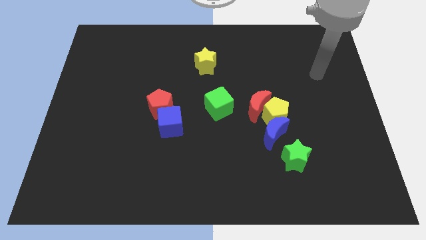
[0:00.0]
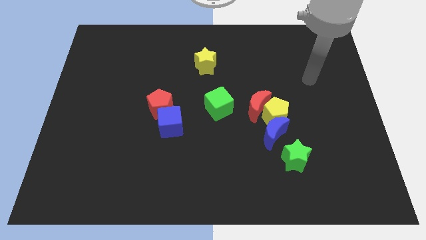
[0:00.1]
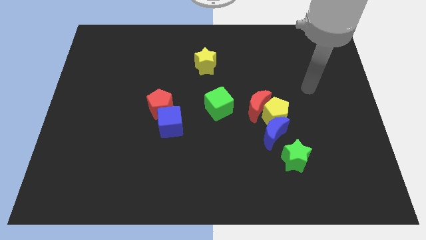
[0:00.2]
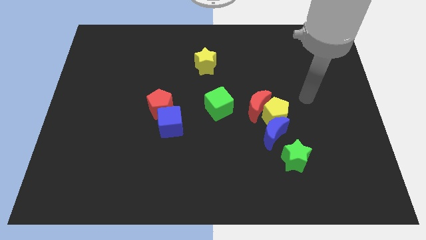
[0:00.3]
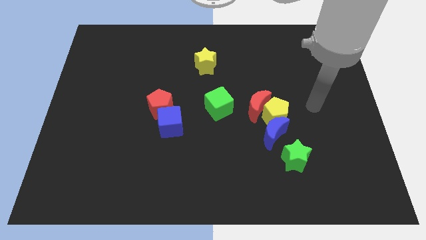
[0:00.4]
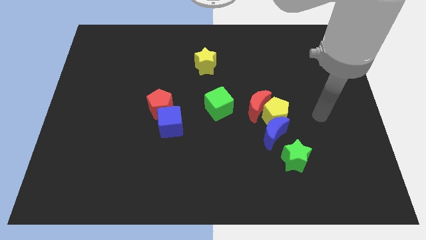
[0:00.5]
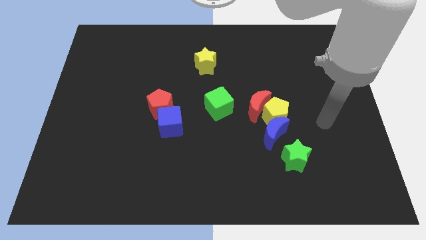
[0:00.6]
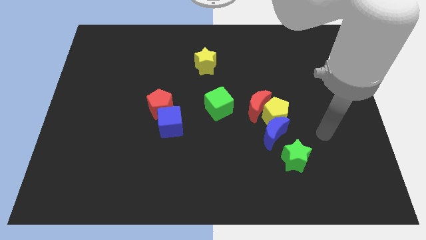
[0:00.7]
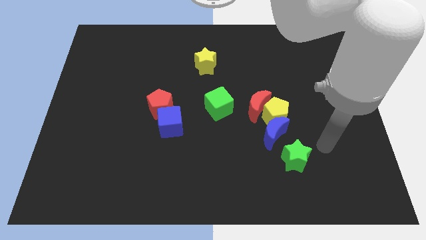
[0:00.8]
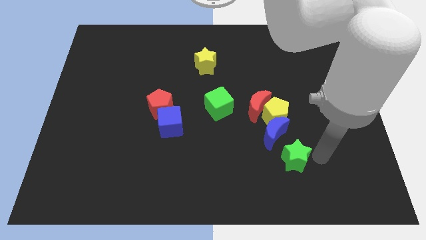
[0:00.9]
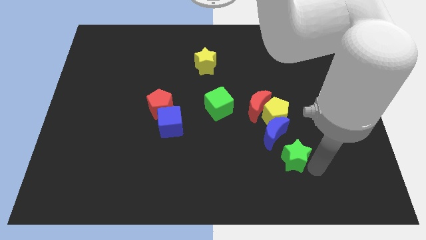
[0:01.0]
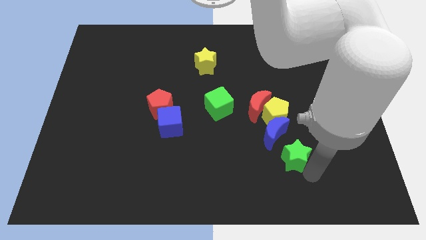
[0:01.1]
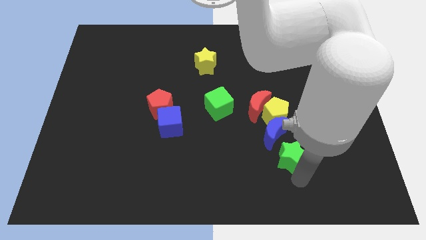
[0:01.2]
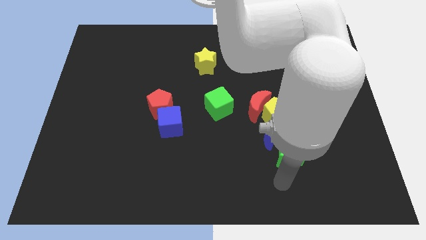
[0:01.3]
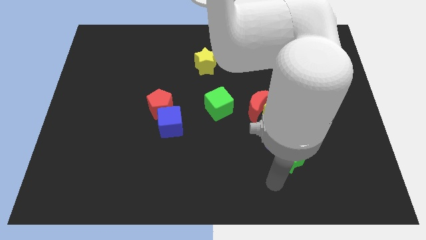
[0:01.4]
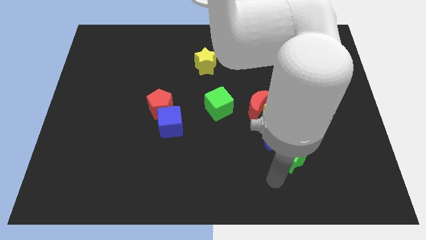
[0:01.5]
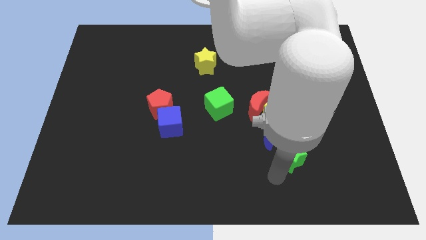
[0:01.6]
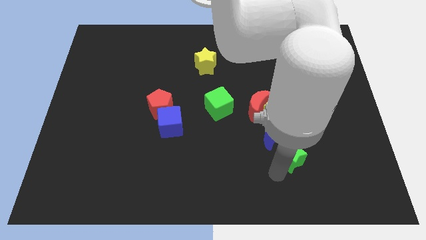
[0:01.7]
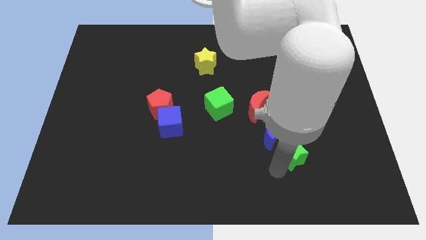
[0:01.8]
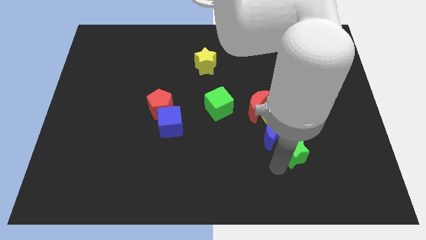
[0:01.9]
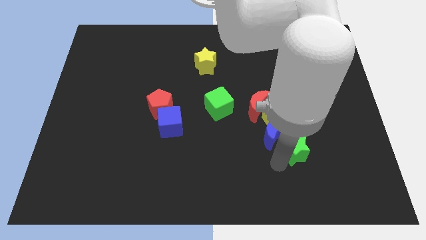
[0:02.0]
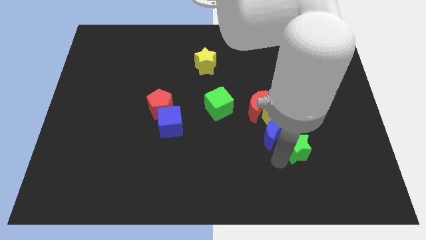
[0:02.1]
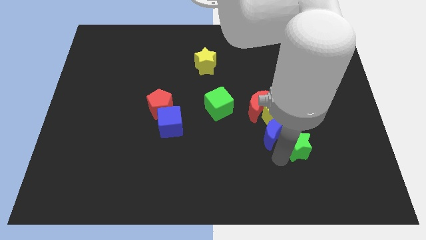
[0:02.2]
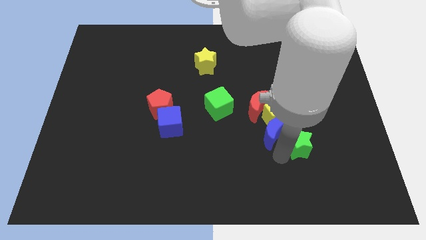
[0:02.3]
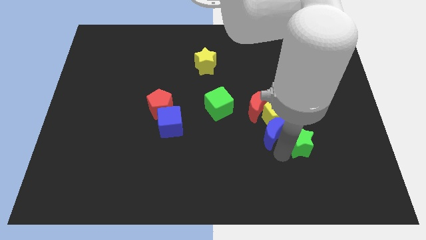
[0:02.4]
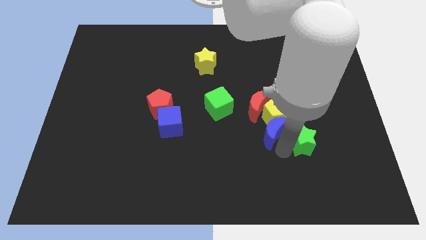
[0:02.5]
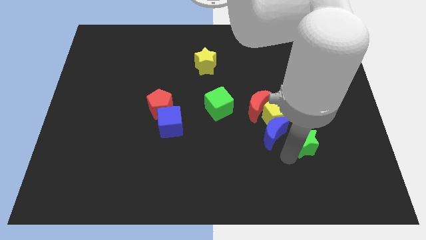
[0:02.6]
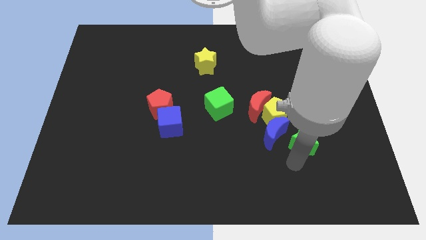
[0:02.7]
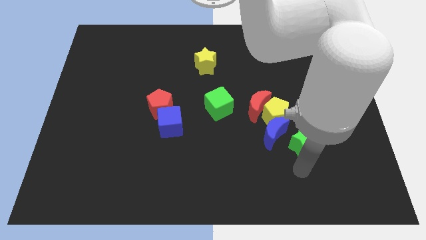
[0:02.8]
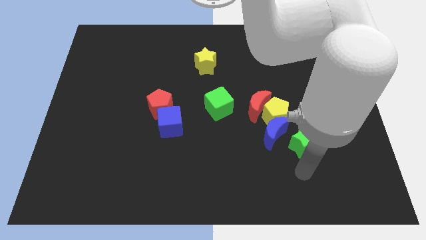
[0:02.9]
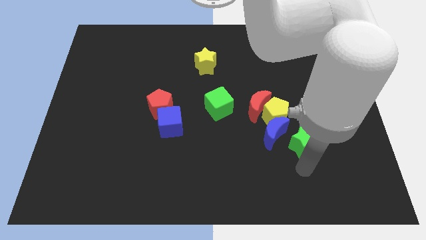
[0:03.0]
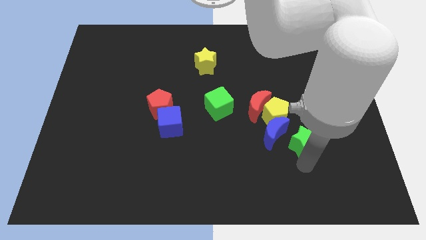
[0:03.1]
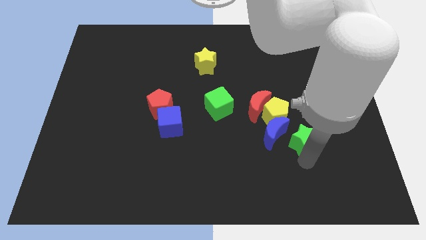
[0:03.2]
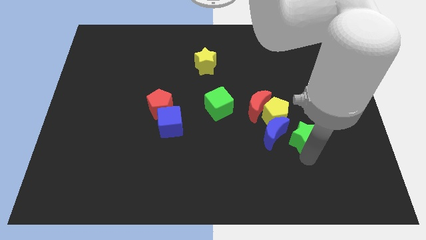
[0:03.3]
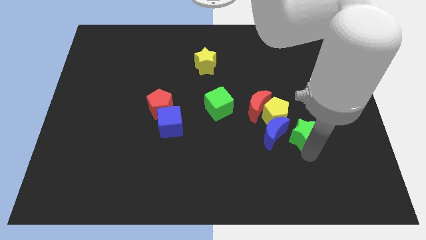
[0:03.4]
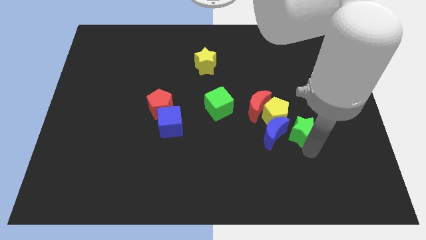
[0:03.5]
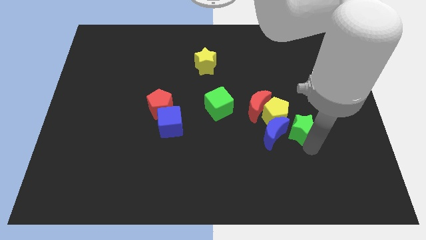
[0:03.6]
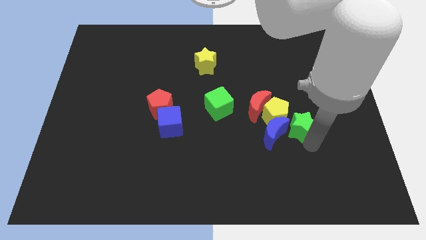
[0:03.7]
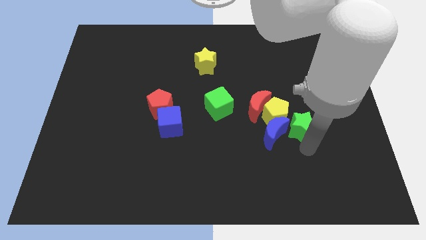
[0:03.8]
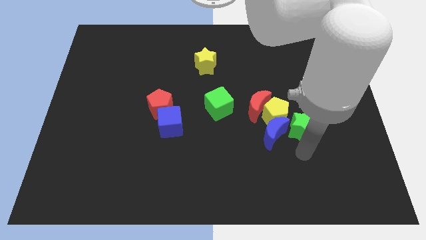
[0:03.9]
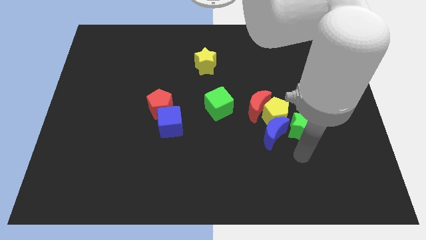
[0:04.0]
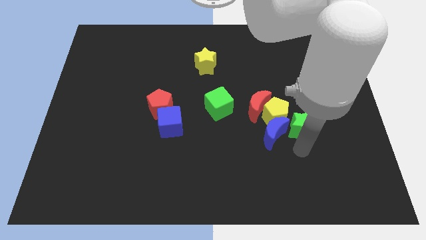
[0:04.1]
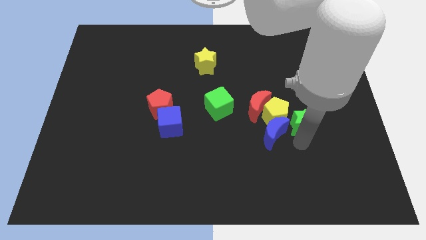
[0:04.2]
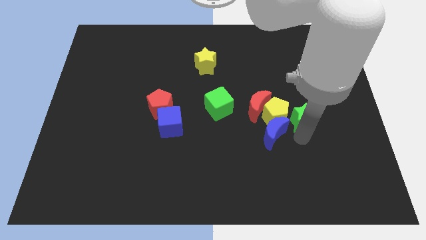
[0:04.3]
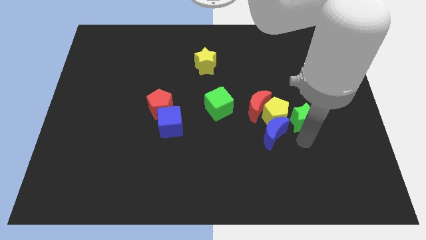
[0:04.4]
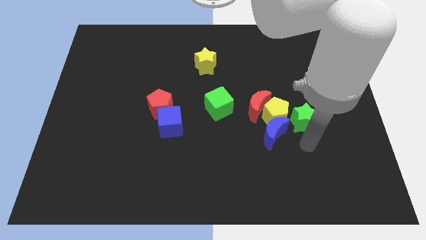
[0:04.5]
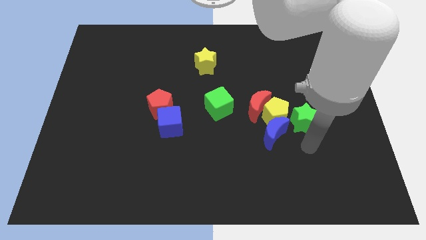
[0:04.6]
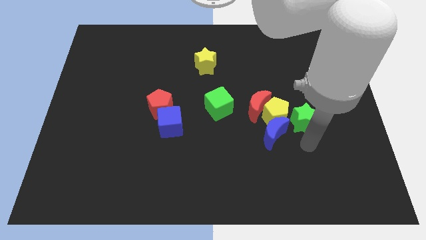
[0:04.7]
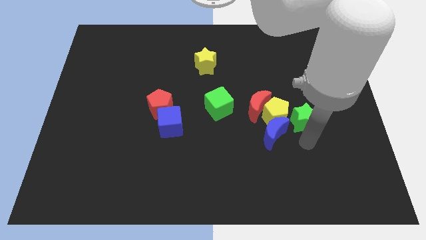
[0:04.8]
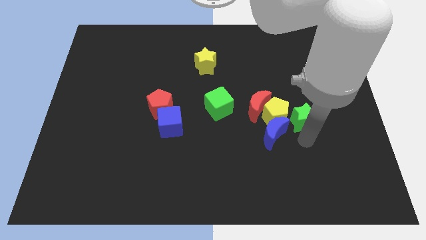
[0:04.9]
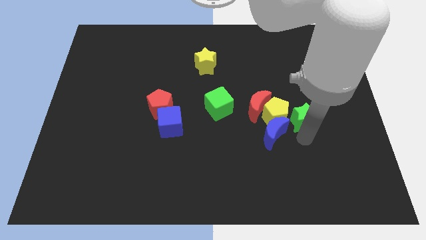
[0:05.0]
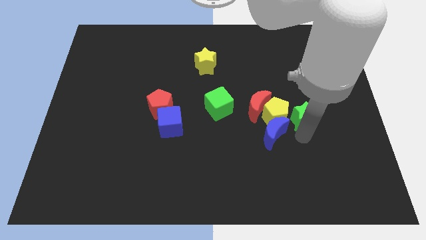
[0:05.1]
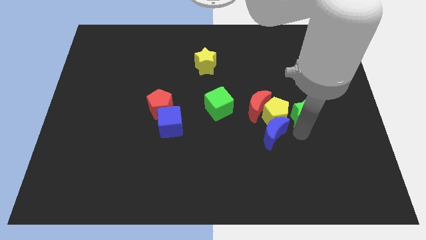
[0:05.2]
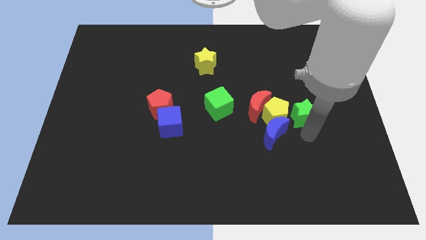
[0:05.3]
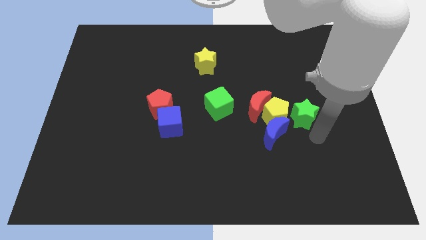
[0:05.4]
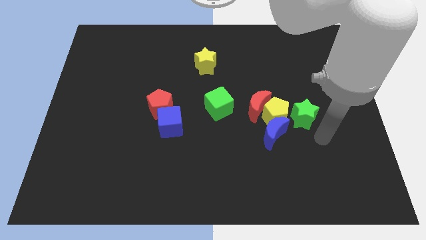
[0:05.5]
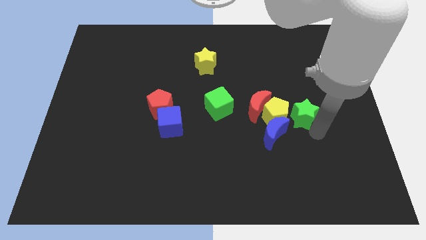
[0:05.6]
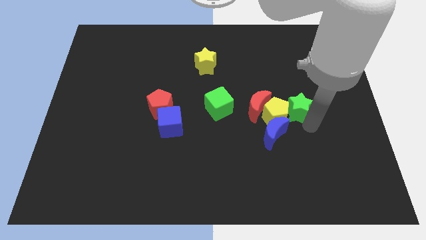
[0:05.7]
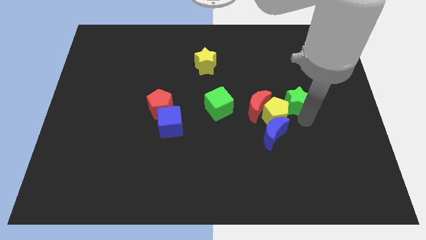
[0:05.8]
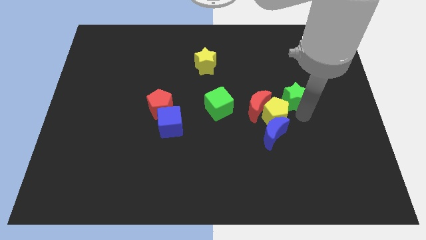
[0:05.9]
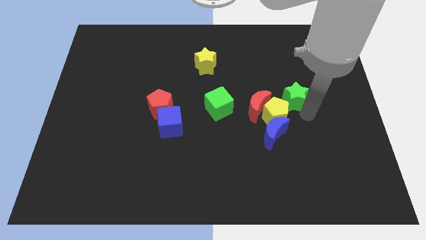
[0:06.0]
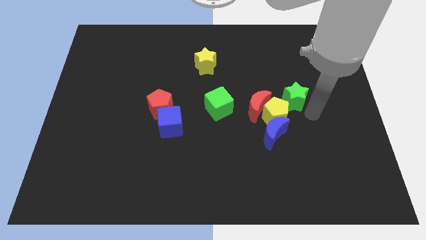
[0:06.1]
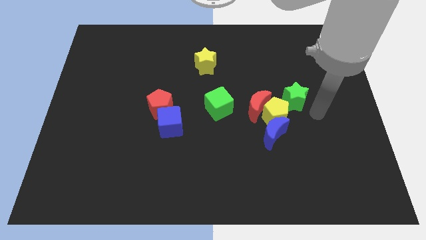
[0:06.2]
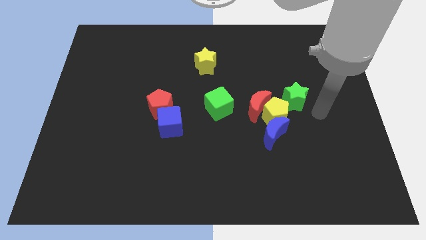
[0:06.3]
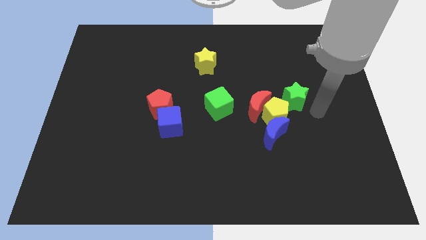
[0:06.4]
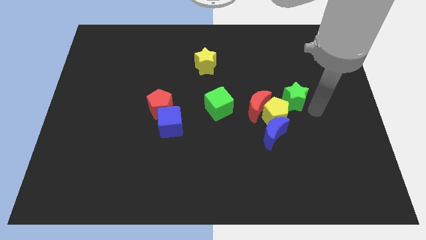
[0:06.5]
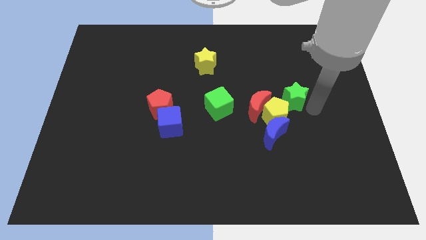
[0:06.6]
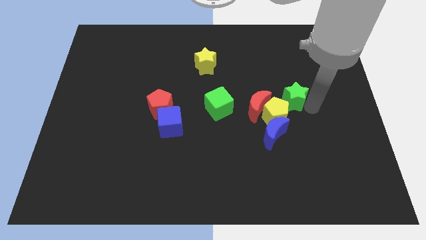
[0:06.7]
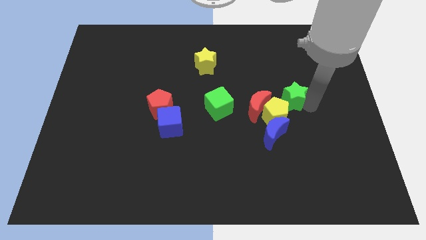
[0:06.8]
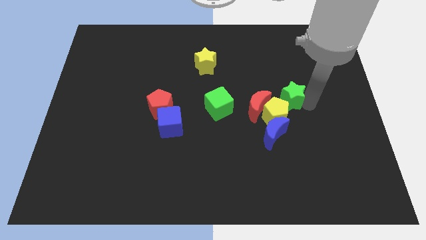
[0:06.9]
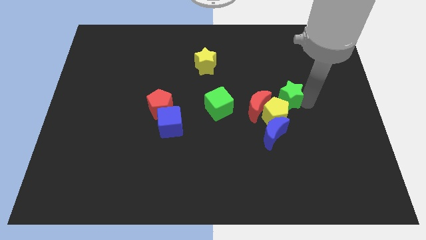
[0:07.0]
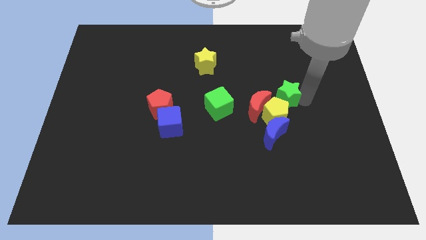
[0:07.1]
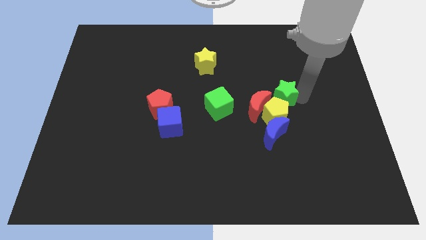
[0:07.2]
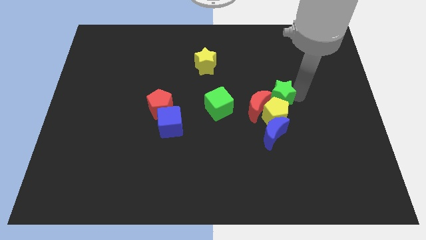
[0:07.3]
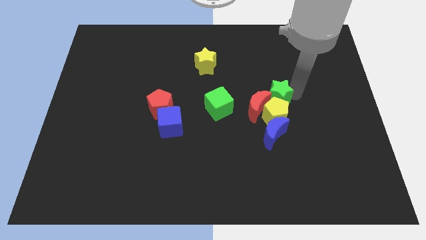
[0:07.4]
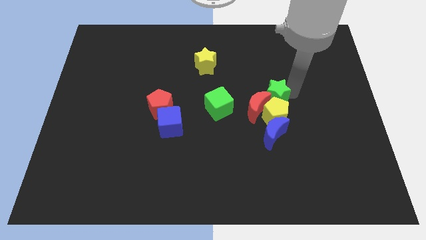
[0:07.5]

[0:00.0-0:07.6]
slide the green star to the top left side of the yellow pentagon
